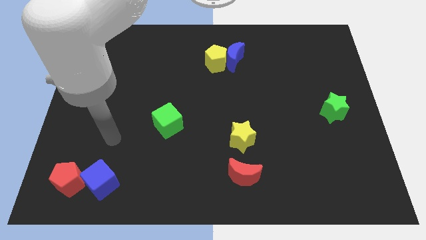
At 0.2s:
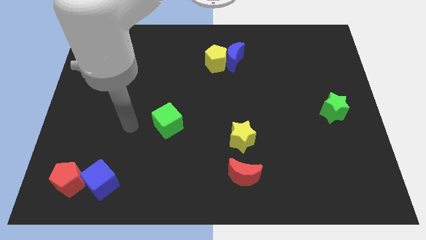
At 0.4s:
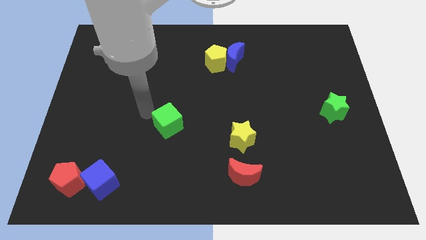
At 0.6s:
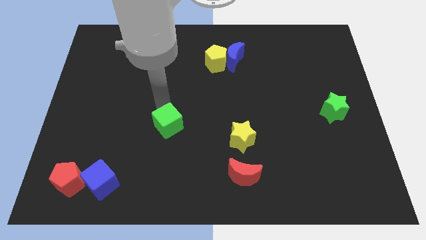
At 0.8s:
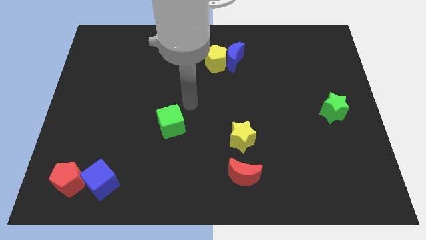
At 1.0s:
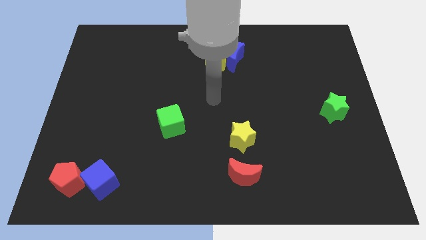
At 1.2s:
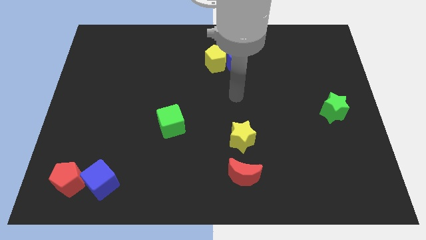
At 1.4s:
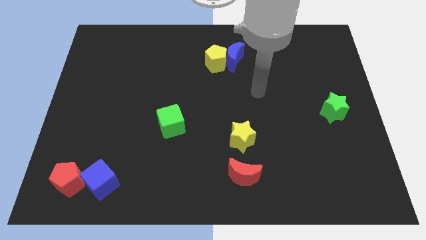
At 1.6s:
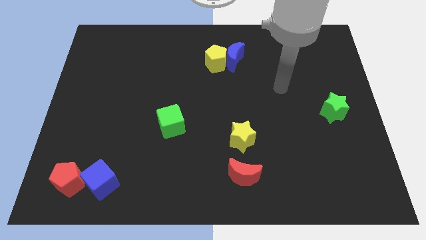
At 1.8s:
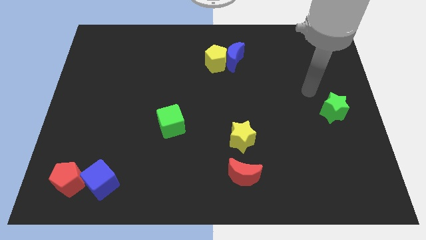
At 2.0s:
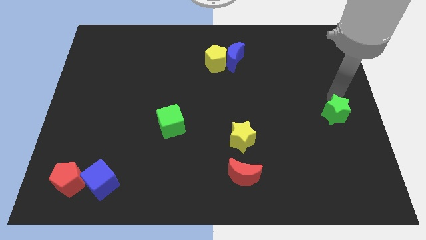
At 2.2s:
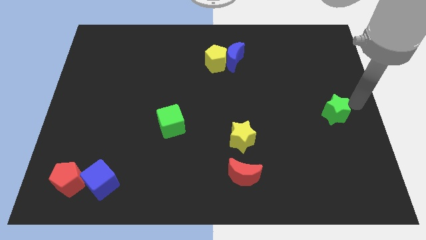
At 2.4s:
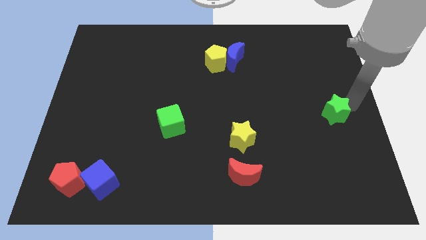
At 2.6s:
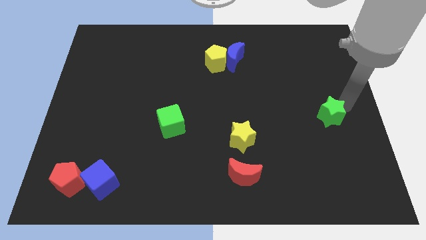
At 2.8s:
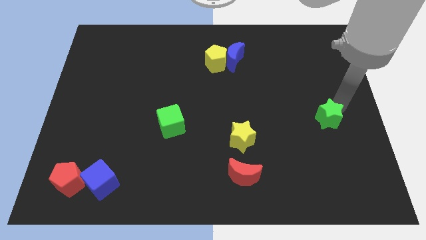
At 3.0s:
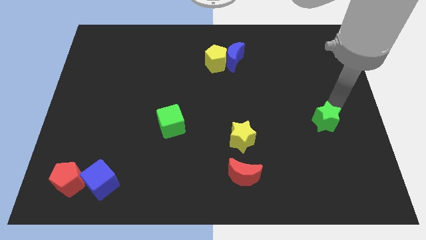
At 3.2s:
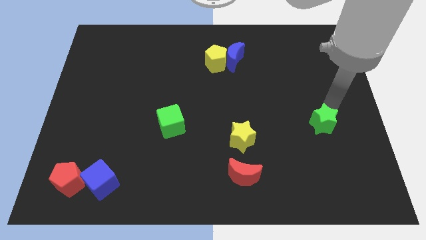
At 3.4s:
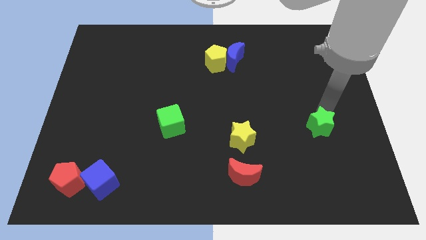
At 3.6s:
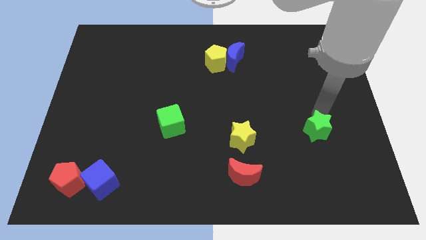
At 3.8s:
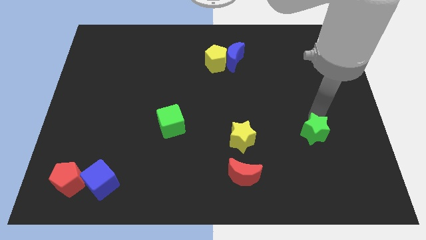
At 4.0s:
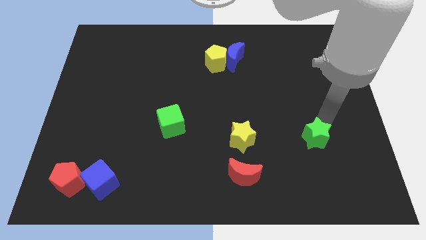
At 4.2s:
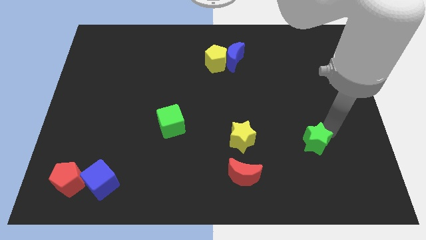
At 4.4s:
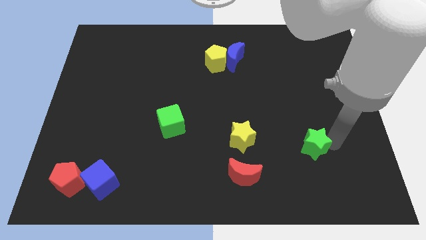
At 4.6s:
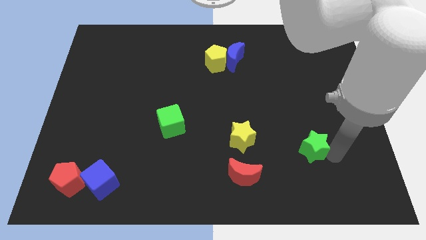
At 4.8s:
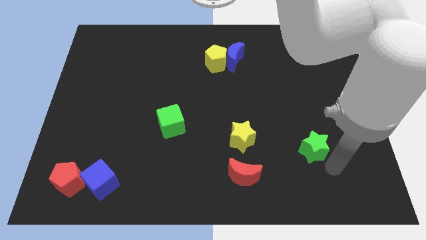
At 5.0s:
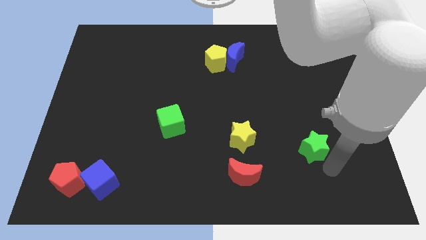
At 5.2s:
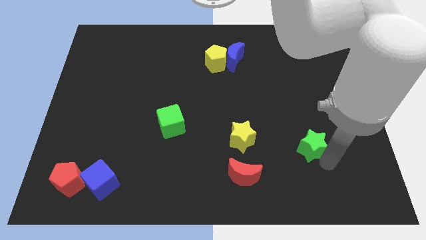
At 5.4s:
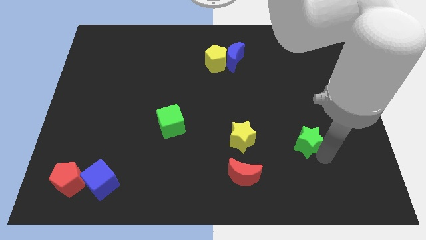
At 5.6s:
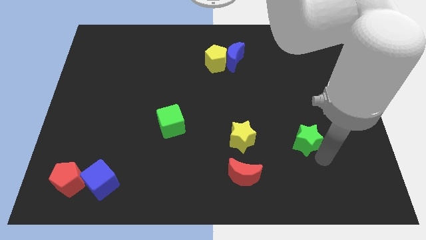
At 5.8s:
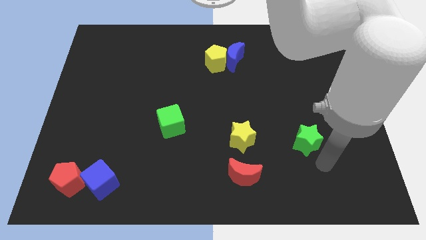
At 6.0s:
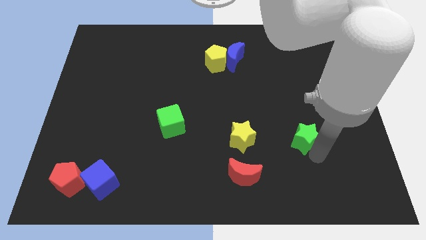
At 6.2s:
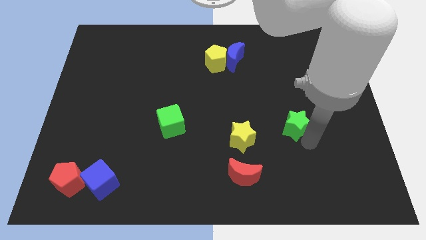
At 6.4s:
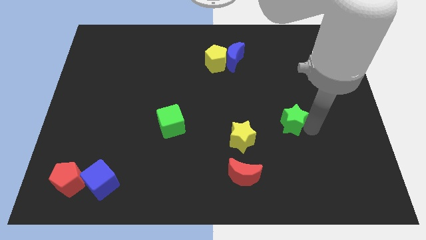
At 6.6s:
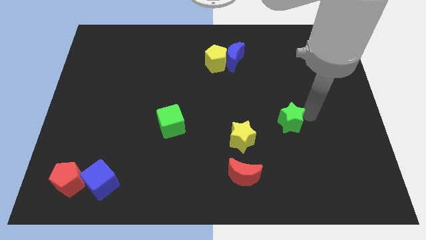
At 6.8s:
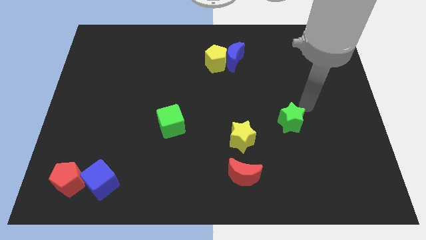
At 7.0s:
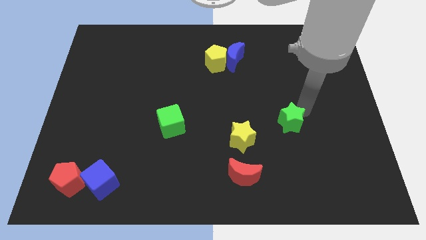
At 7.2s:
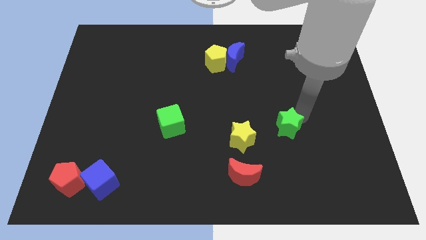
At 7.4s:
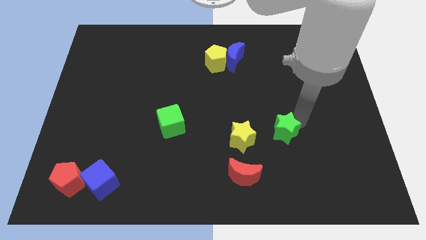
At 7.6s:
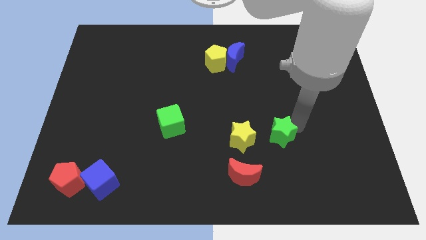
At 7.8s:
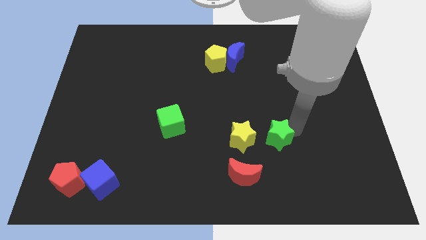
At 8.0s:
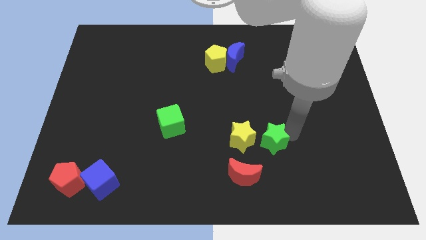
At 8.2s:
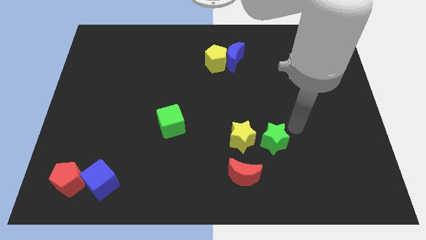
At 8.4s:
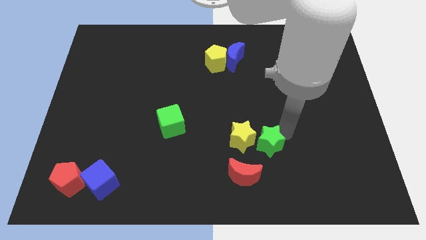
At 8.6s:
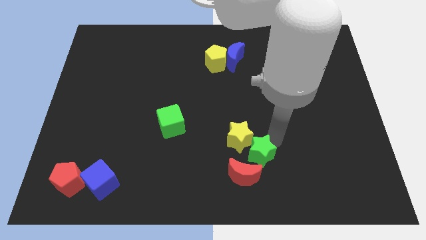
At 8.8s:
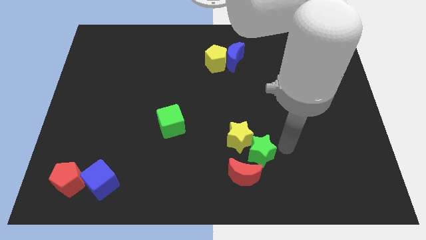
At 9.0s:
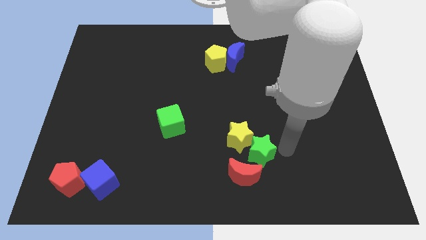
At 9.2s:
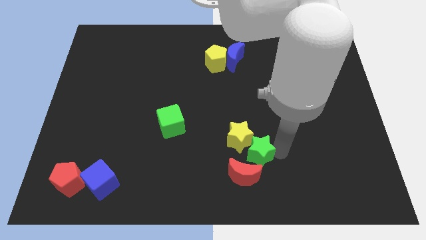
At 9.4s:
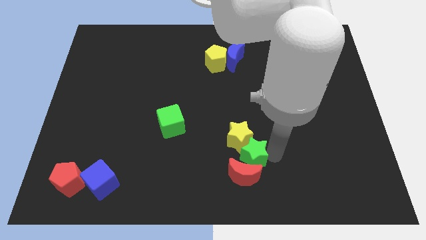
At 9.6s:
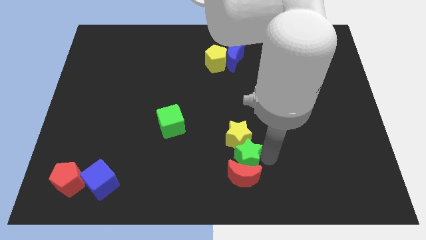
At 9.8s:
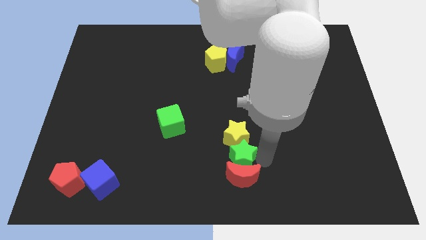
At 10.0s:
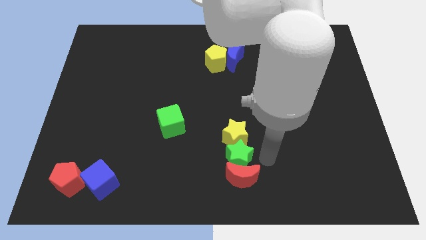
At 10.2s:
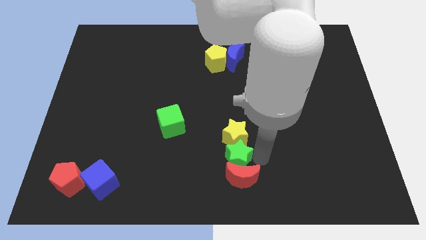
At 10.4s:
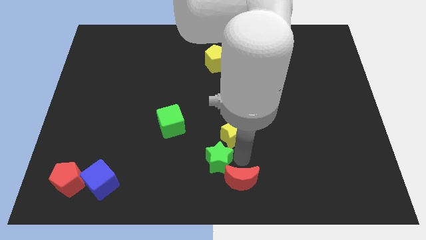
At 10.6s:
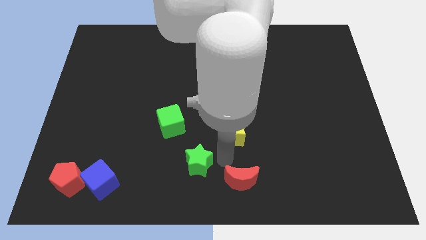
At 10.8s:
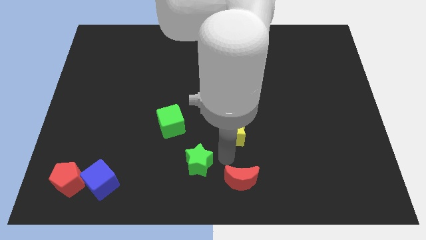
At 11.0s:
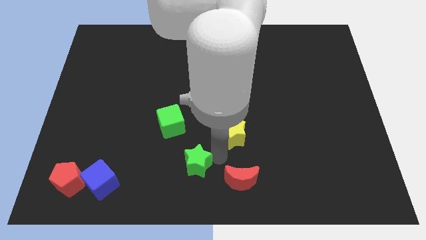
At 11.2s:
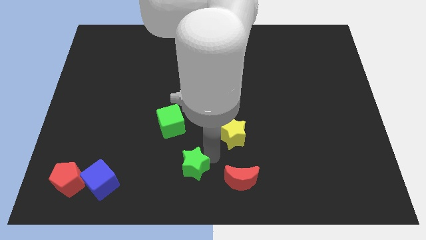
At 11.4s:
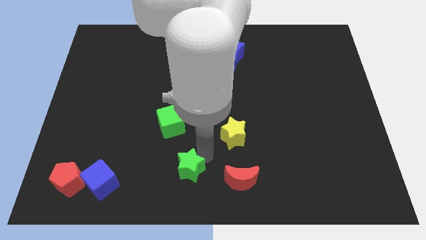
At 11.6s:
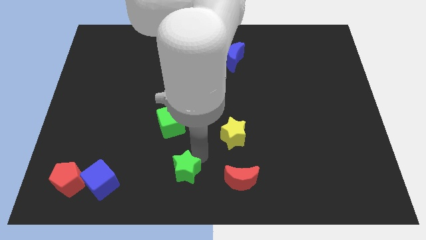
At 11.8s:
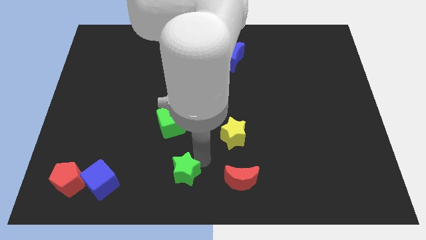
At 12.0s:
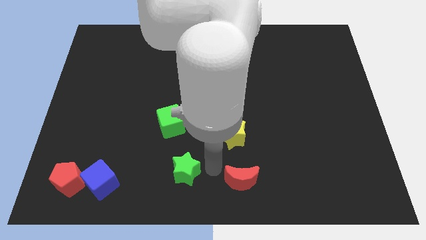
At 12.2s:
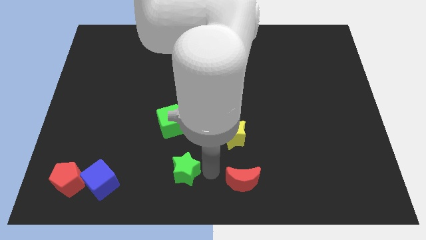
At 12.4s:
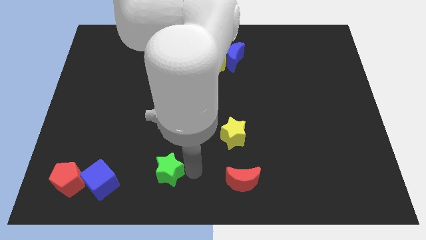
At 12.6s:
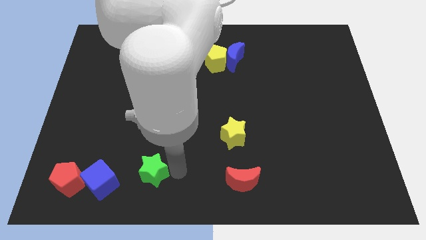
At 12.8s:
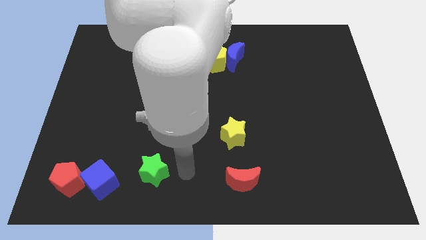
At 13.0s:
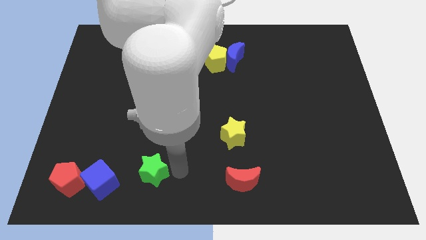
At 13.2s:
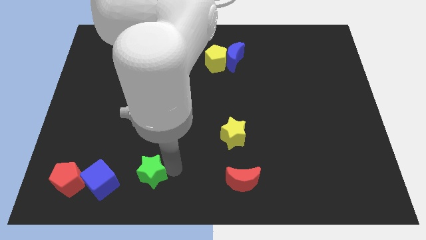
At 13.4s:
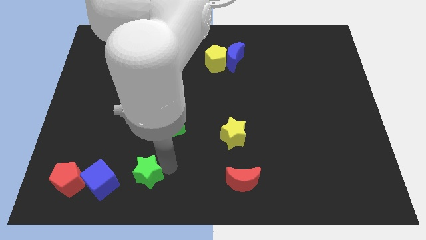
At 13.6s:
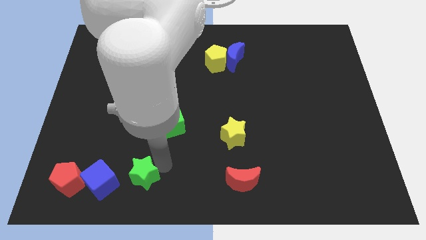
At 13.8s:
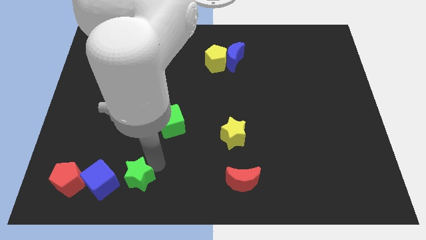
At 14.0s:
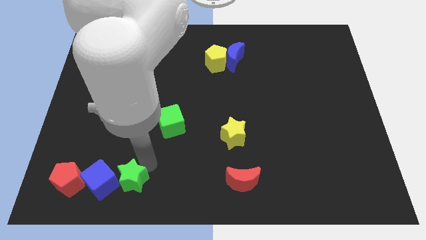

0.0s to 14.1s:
slide the green star next to the blue cube

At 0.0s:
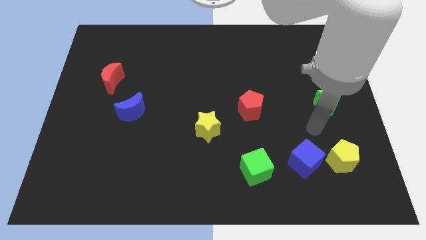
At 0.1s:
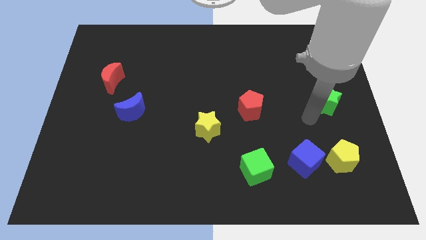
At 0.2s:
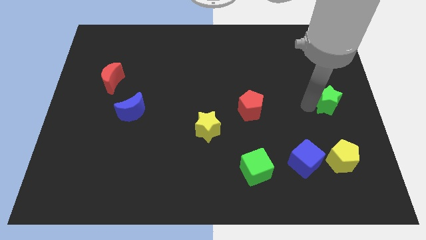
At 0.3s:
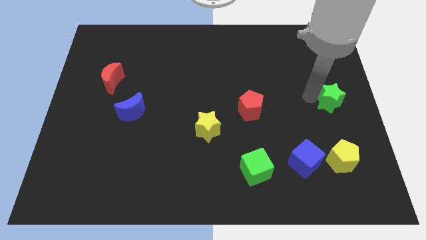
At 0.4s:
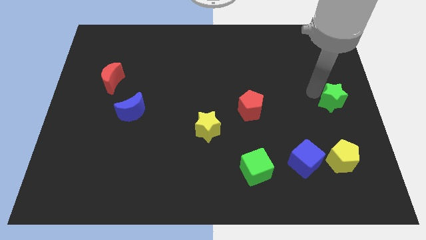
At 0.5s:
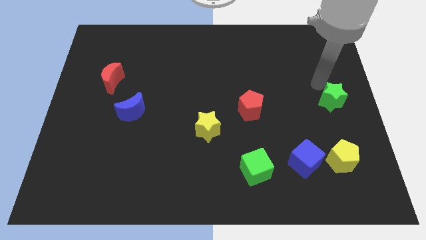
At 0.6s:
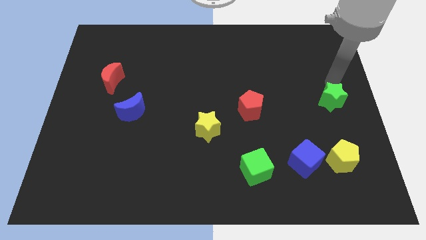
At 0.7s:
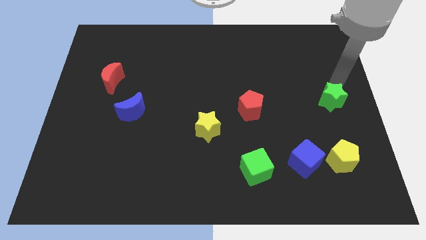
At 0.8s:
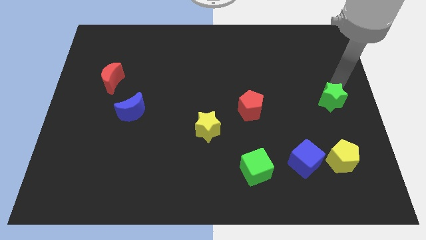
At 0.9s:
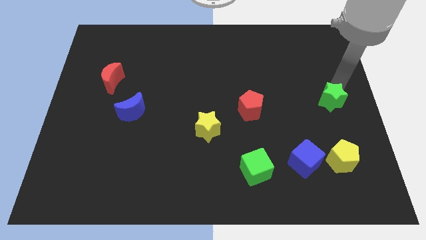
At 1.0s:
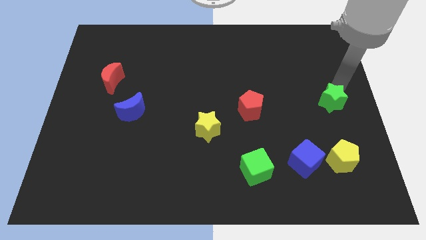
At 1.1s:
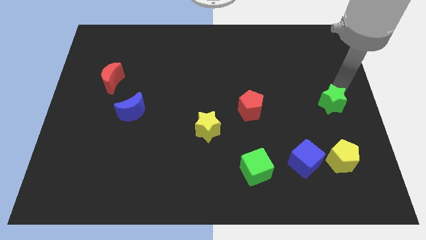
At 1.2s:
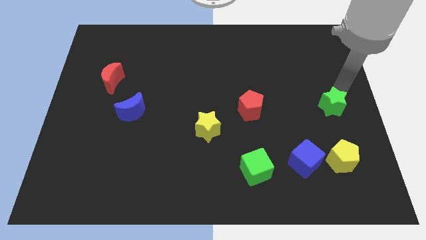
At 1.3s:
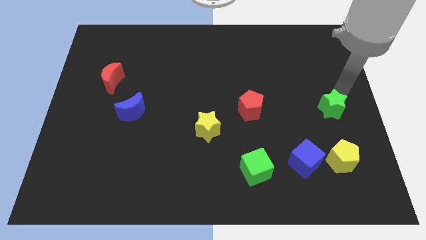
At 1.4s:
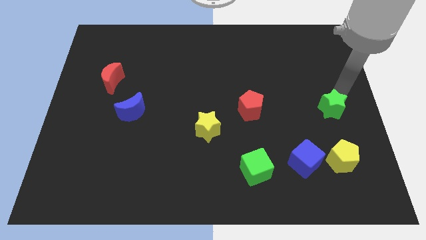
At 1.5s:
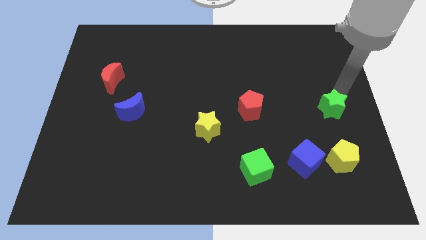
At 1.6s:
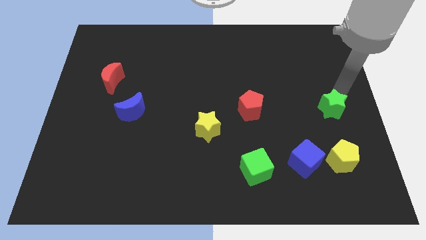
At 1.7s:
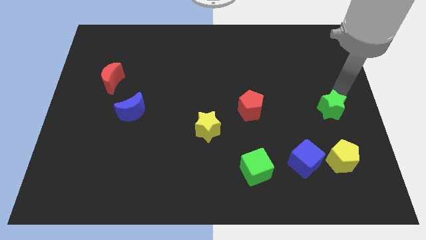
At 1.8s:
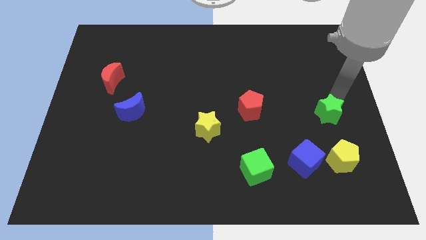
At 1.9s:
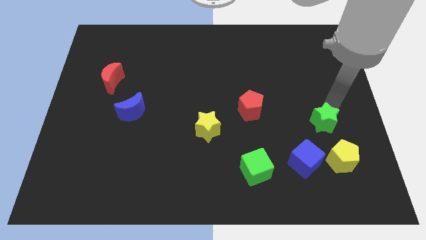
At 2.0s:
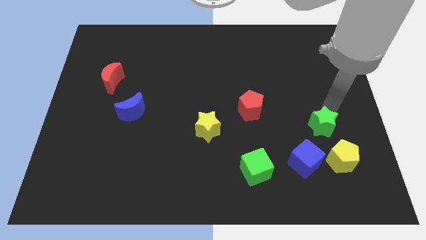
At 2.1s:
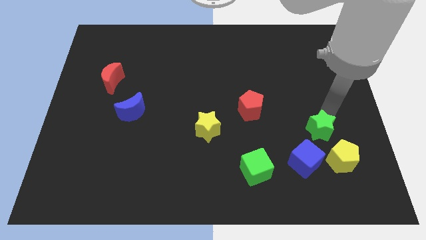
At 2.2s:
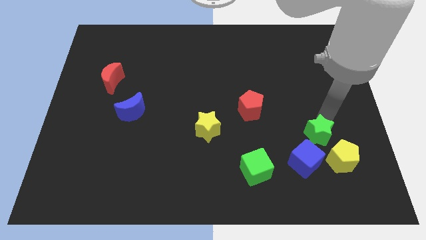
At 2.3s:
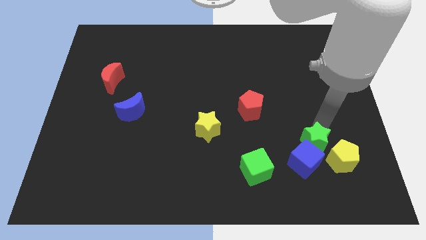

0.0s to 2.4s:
put the green star to the blue cube
